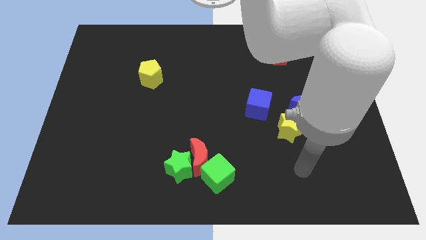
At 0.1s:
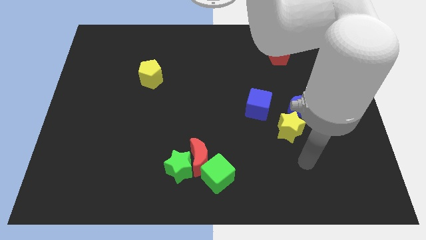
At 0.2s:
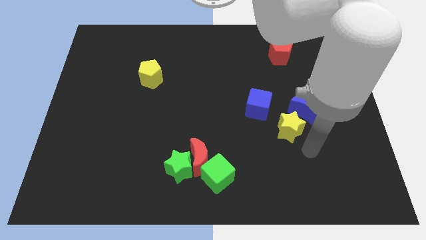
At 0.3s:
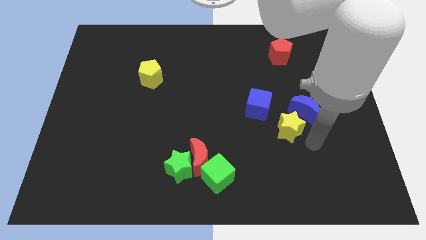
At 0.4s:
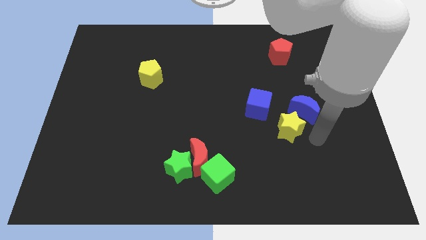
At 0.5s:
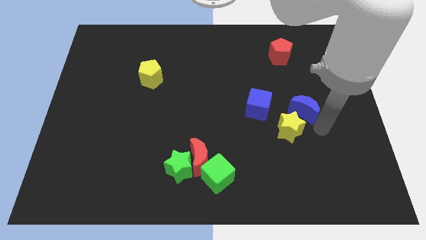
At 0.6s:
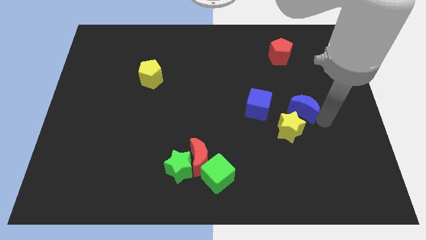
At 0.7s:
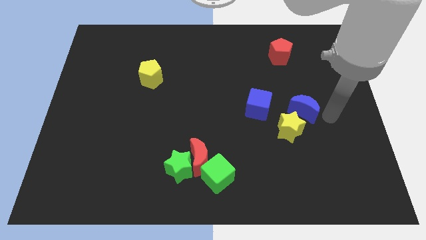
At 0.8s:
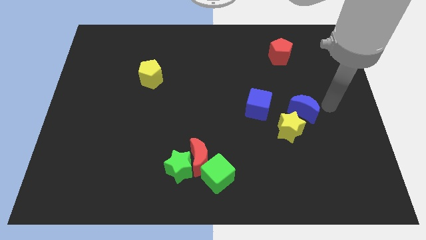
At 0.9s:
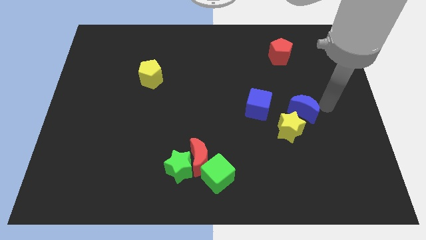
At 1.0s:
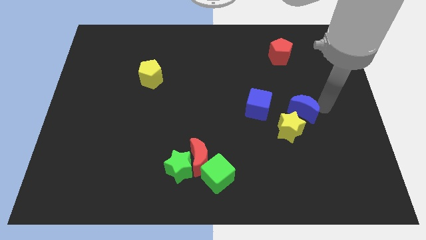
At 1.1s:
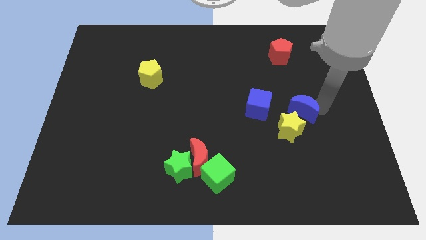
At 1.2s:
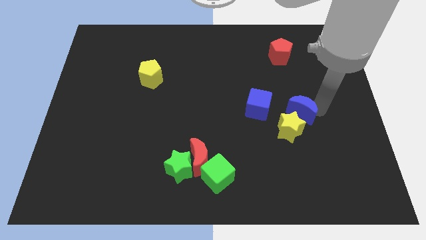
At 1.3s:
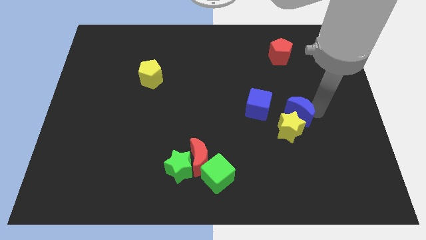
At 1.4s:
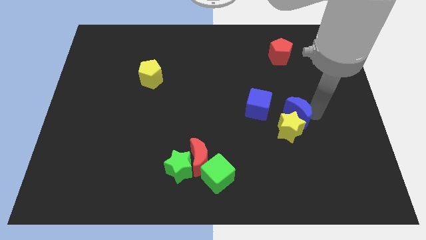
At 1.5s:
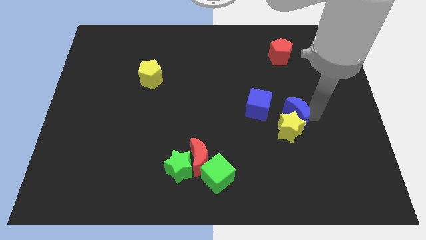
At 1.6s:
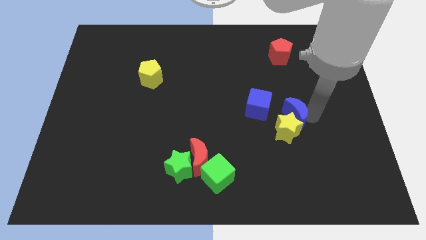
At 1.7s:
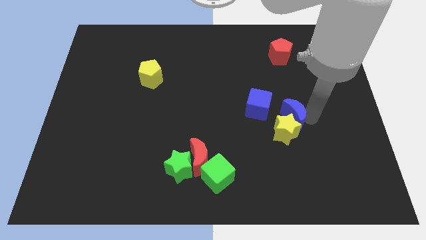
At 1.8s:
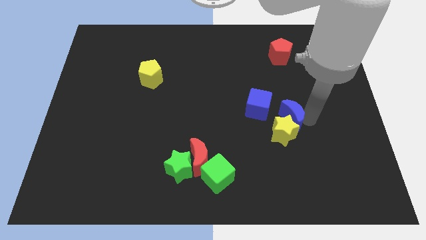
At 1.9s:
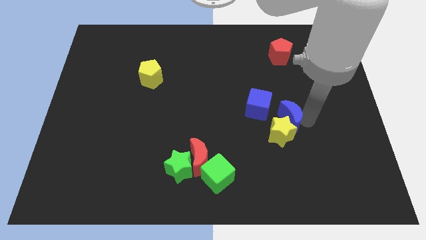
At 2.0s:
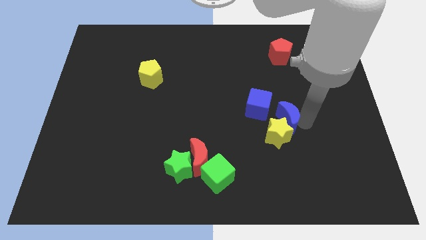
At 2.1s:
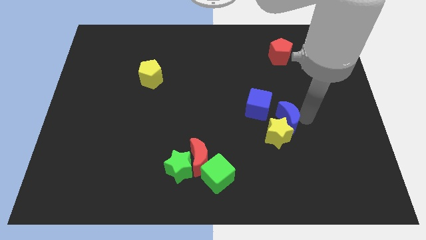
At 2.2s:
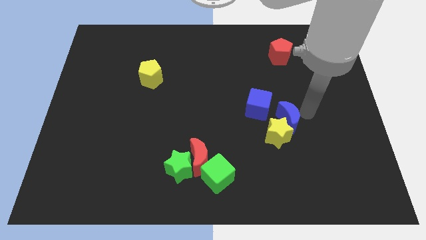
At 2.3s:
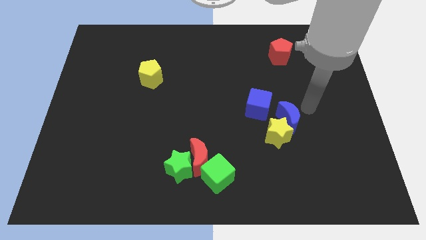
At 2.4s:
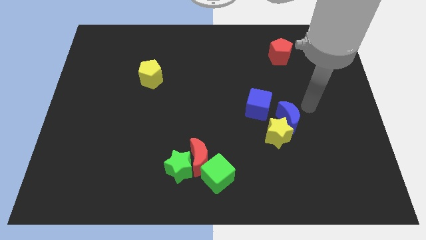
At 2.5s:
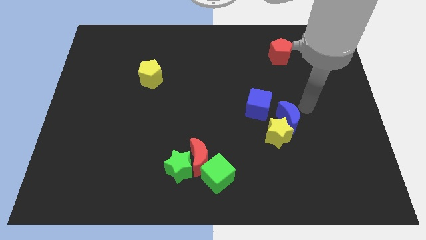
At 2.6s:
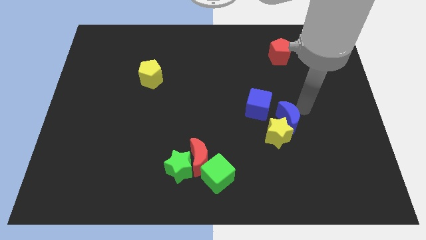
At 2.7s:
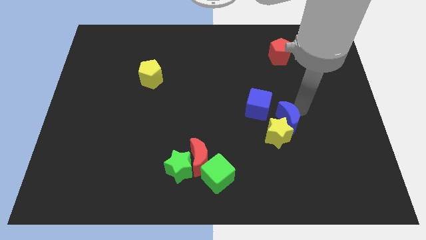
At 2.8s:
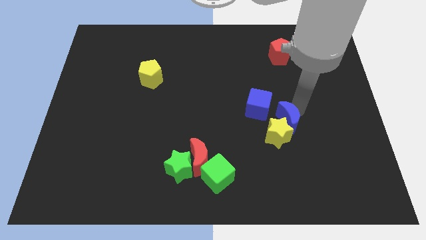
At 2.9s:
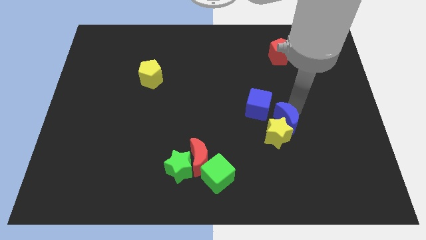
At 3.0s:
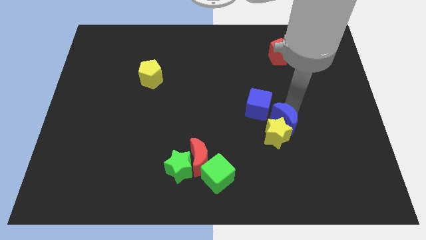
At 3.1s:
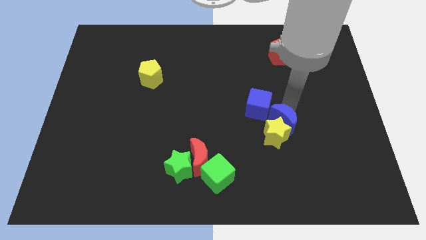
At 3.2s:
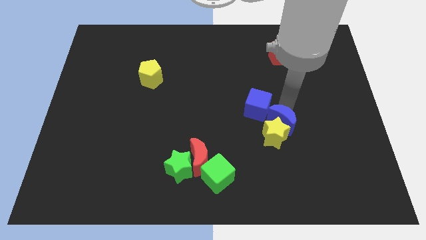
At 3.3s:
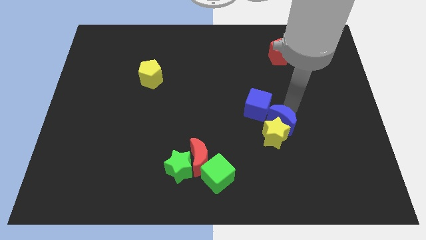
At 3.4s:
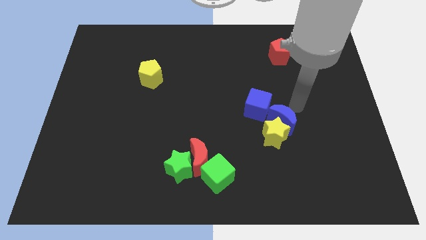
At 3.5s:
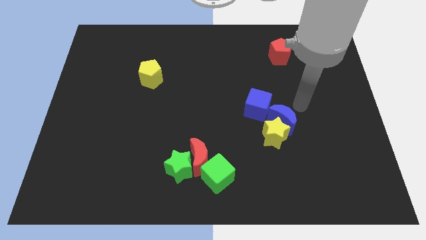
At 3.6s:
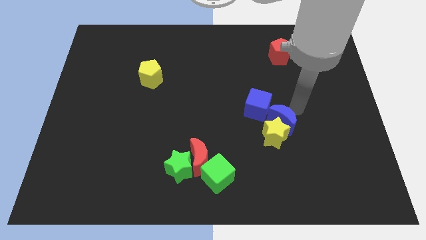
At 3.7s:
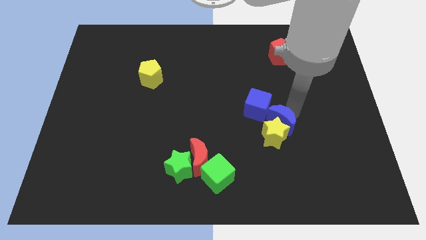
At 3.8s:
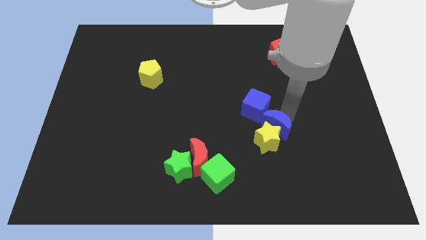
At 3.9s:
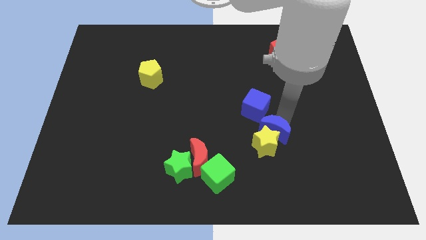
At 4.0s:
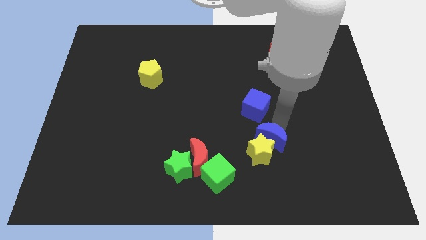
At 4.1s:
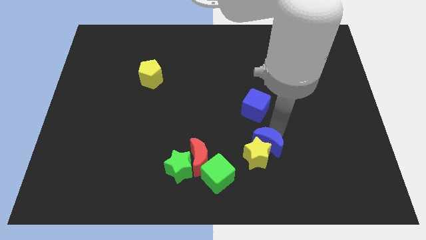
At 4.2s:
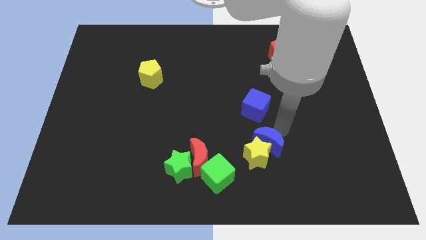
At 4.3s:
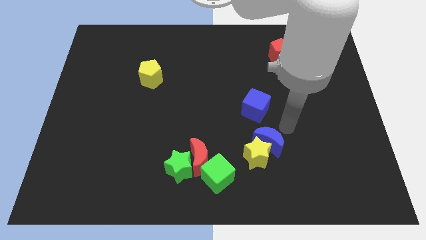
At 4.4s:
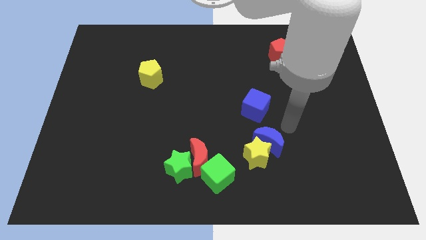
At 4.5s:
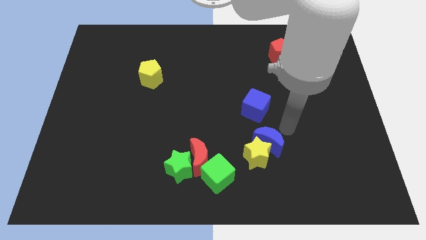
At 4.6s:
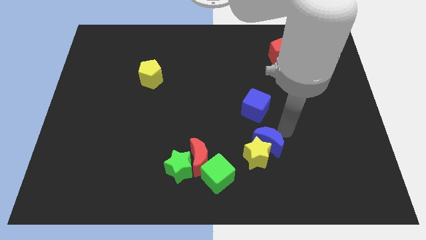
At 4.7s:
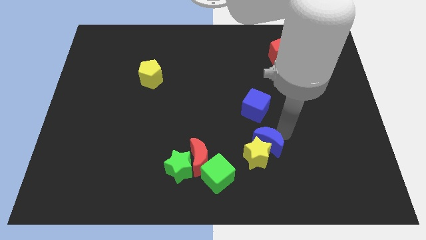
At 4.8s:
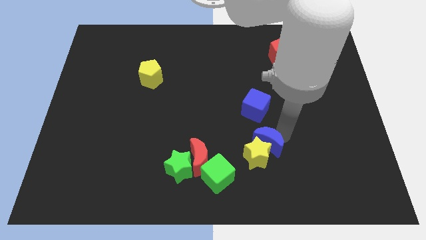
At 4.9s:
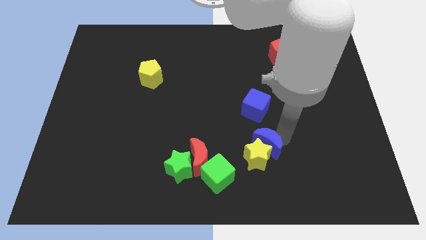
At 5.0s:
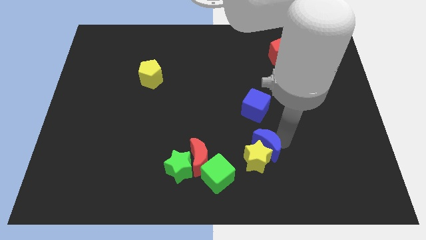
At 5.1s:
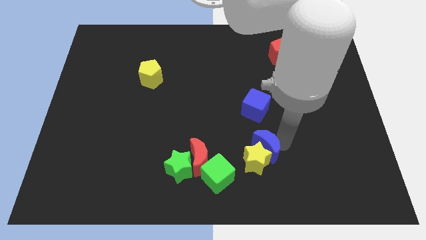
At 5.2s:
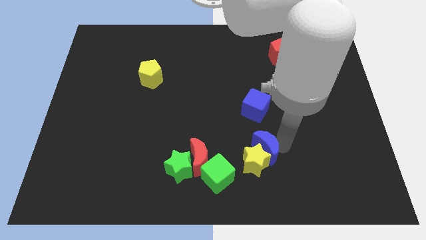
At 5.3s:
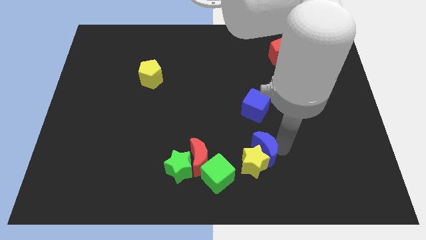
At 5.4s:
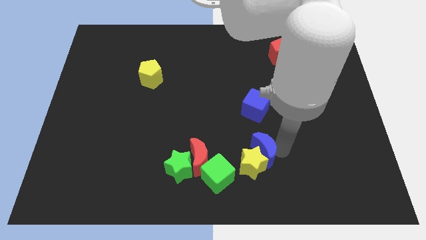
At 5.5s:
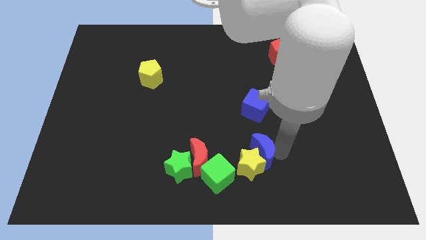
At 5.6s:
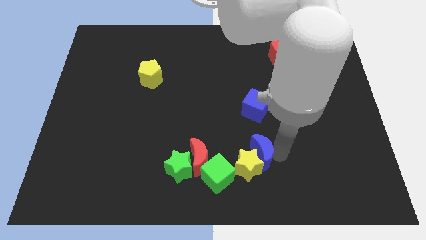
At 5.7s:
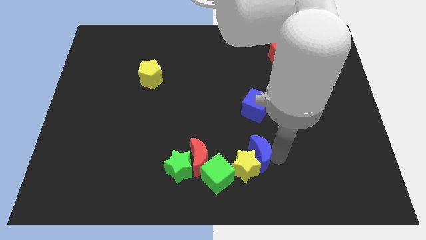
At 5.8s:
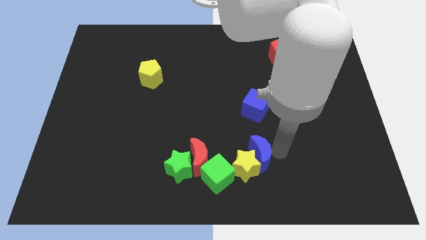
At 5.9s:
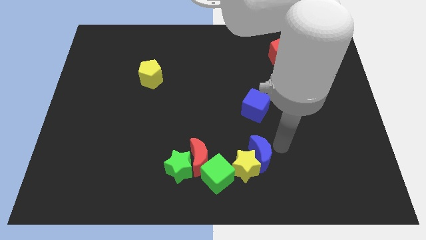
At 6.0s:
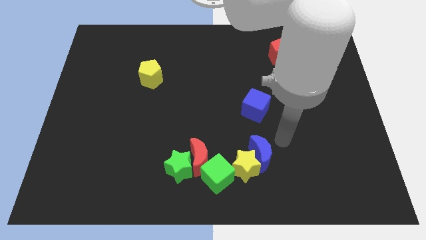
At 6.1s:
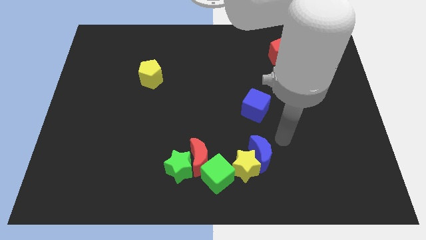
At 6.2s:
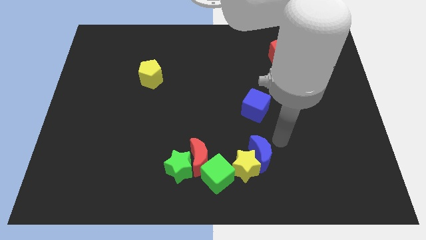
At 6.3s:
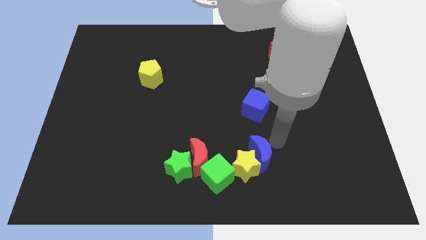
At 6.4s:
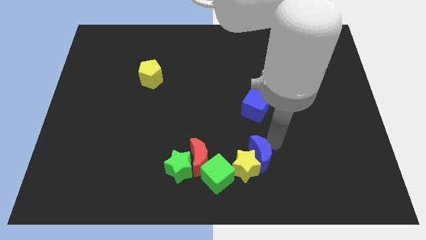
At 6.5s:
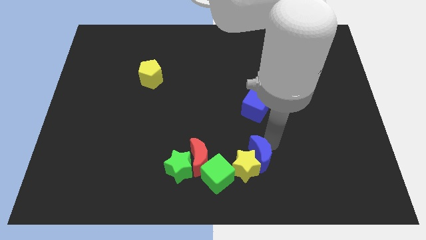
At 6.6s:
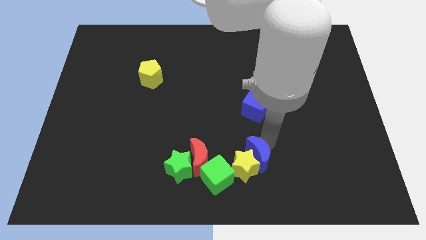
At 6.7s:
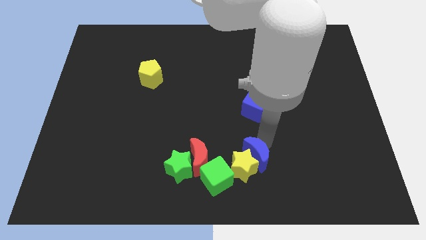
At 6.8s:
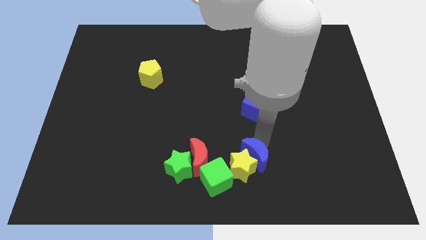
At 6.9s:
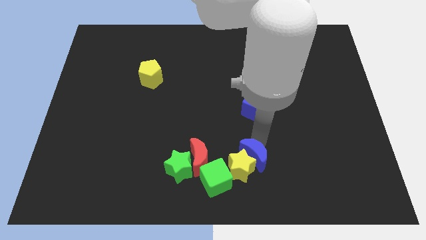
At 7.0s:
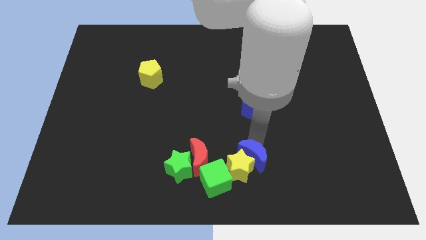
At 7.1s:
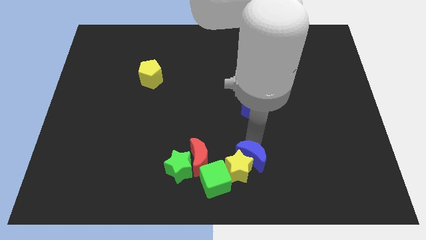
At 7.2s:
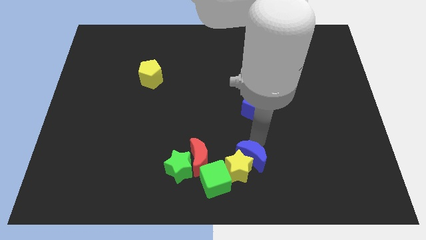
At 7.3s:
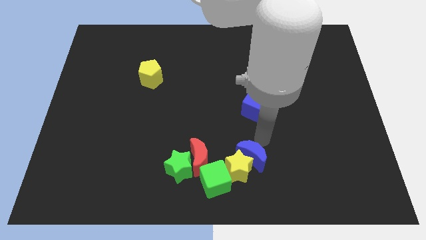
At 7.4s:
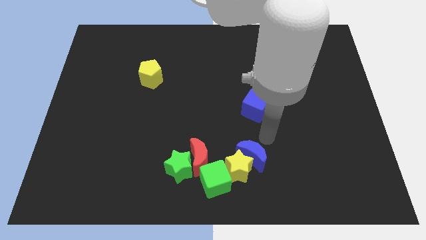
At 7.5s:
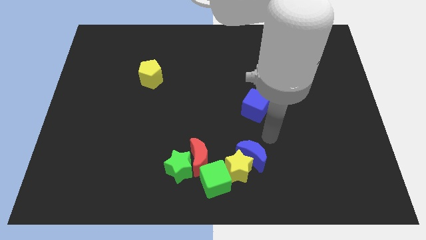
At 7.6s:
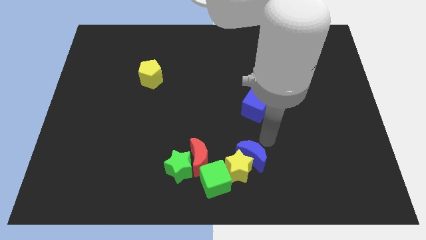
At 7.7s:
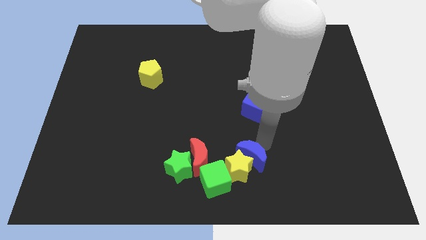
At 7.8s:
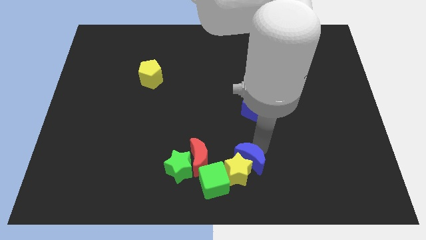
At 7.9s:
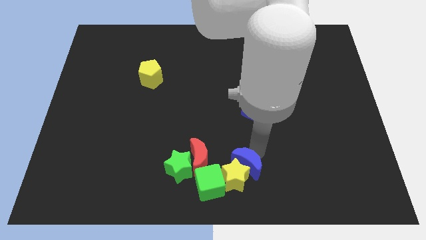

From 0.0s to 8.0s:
put the blue moon to the bottom side
